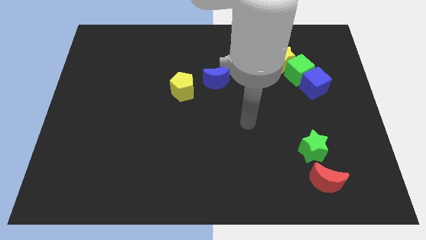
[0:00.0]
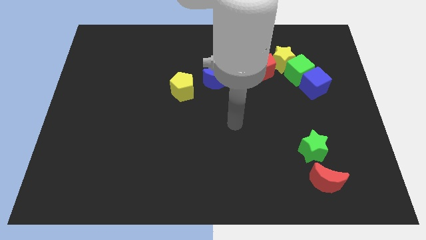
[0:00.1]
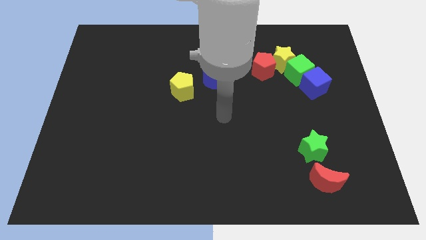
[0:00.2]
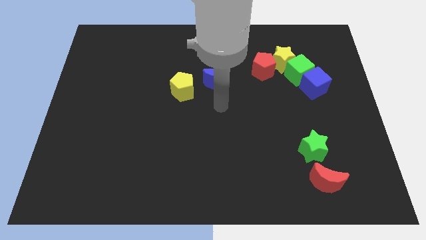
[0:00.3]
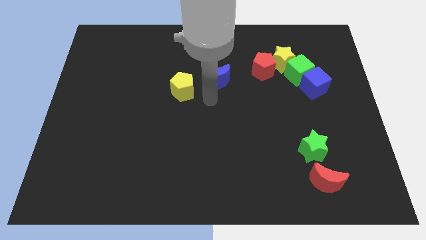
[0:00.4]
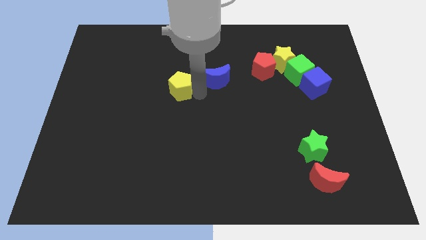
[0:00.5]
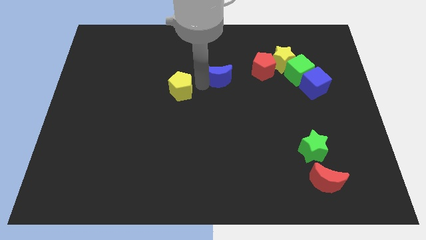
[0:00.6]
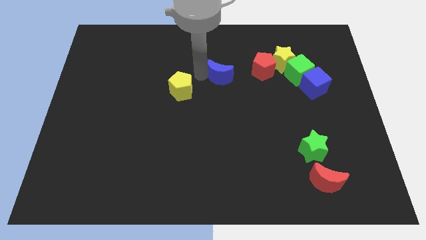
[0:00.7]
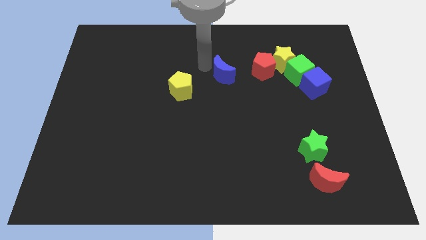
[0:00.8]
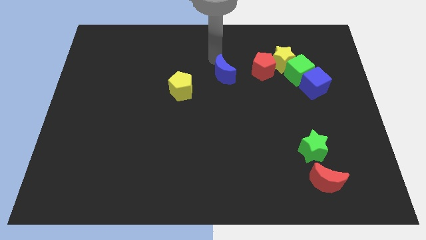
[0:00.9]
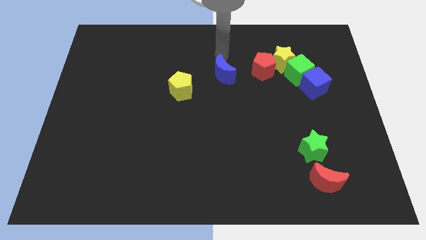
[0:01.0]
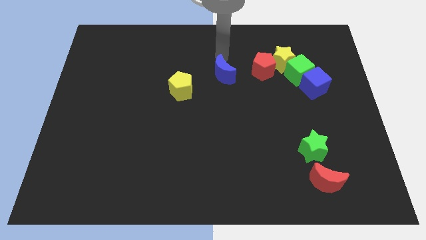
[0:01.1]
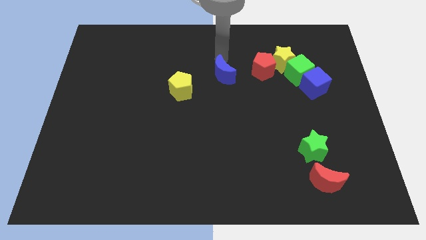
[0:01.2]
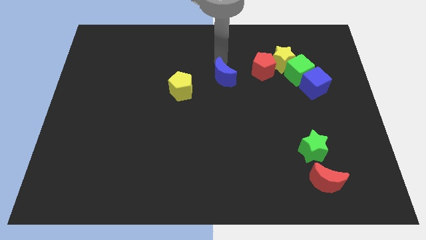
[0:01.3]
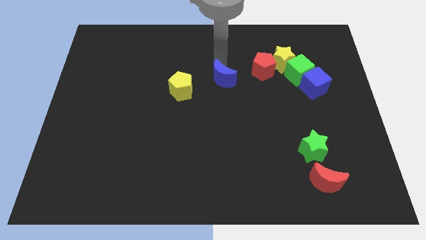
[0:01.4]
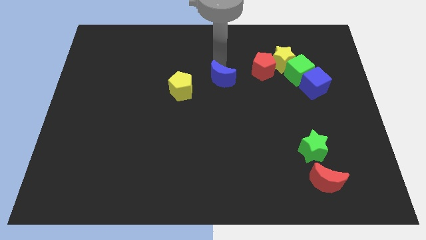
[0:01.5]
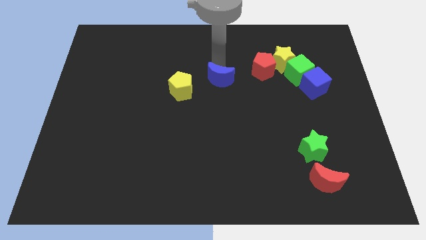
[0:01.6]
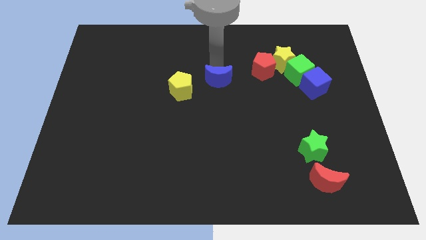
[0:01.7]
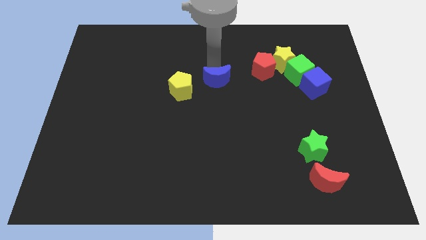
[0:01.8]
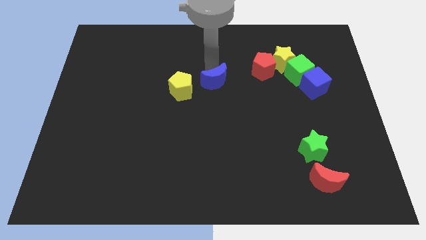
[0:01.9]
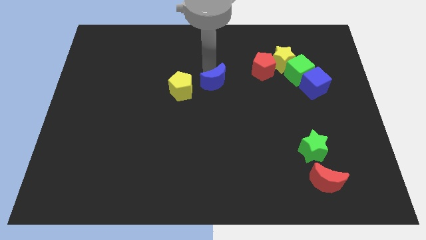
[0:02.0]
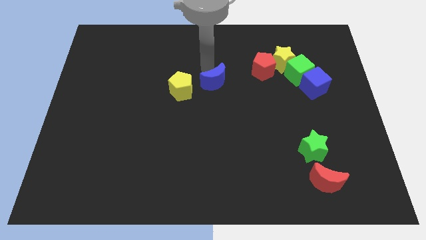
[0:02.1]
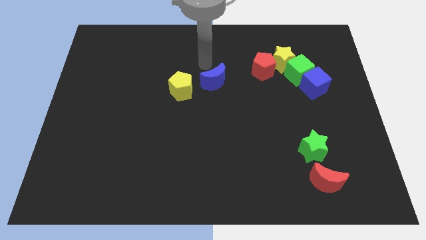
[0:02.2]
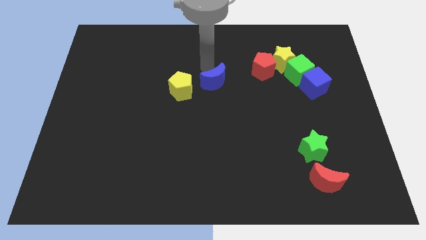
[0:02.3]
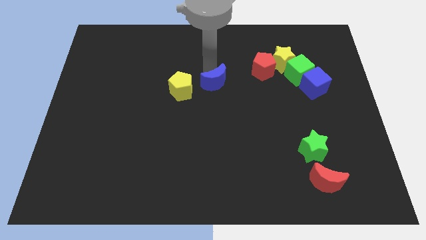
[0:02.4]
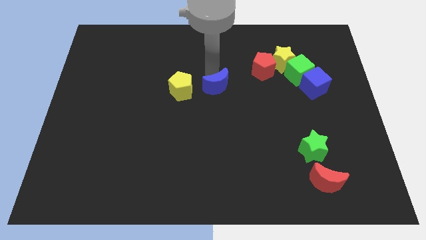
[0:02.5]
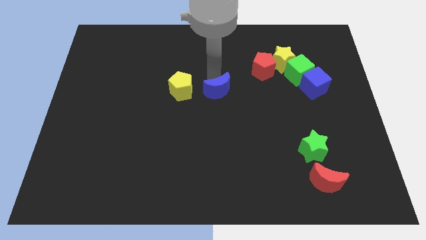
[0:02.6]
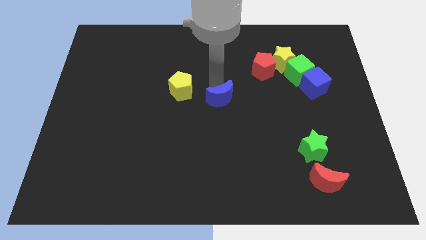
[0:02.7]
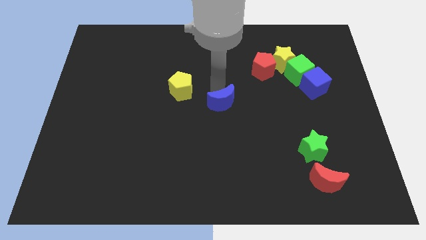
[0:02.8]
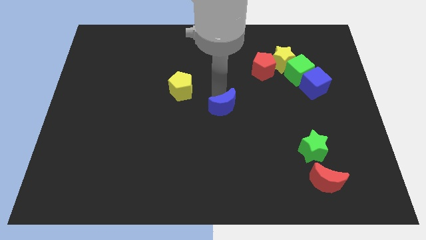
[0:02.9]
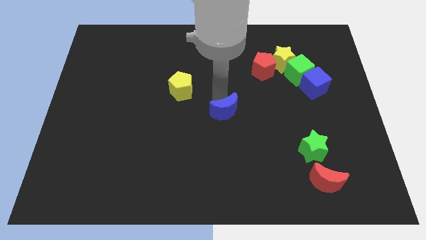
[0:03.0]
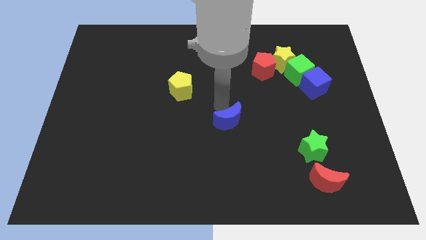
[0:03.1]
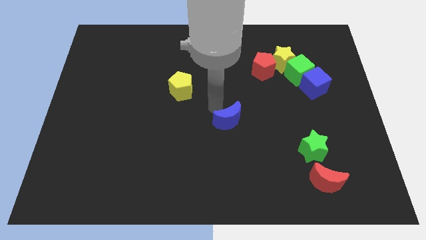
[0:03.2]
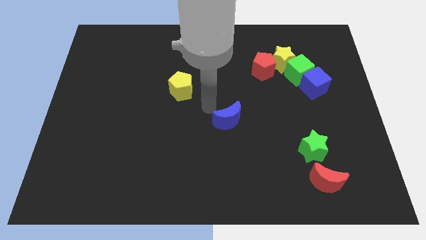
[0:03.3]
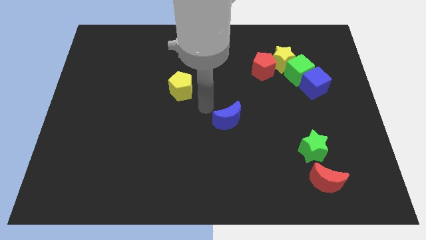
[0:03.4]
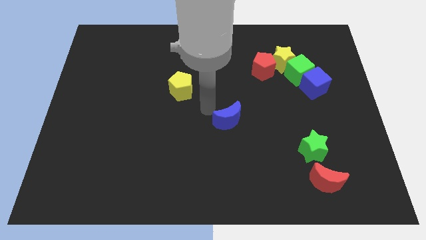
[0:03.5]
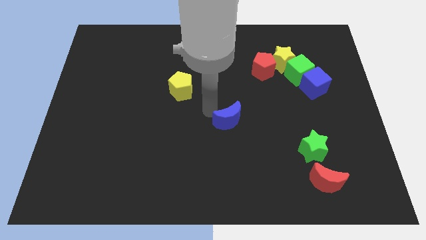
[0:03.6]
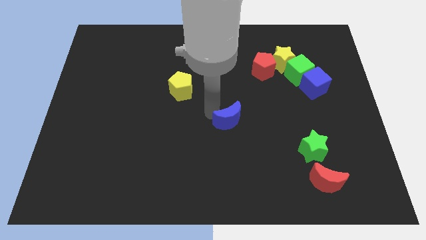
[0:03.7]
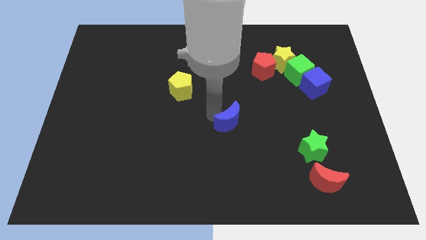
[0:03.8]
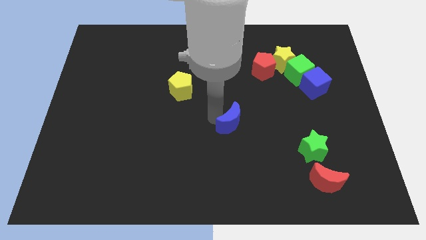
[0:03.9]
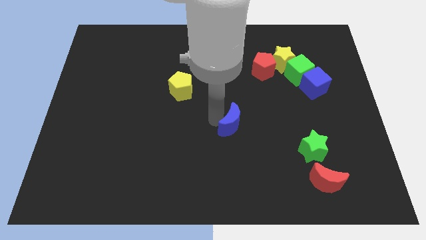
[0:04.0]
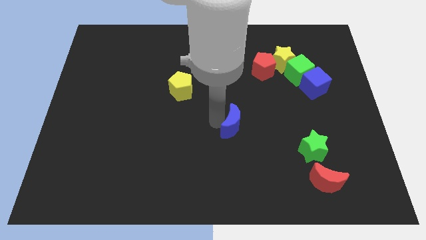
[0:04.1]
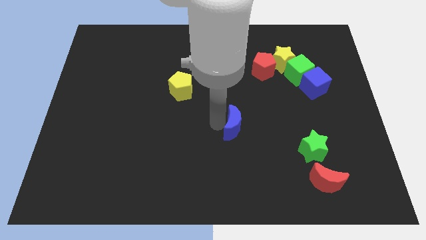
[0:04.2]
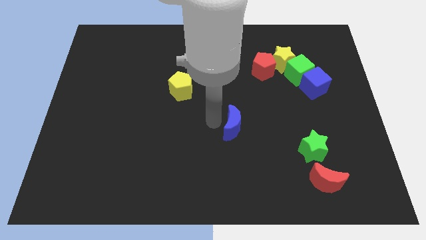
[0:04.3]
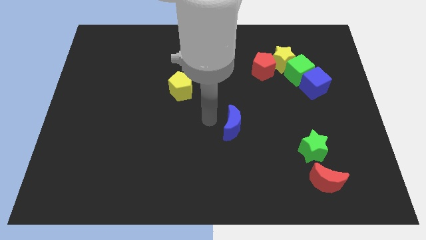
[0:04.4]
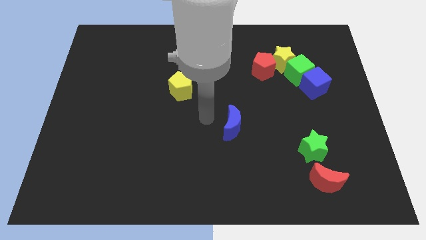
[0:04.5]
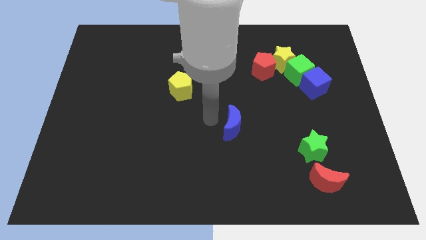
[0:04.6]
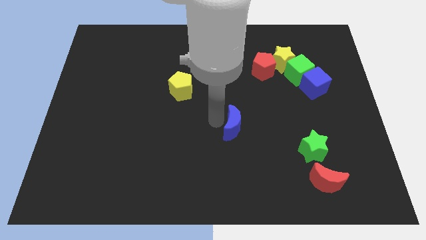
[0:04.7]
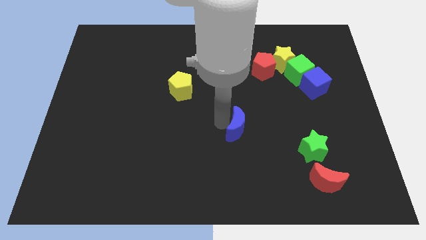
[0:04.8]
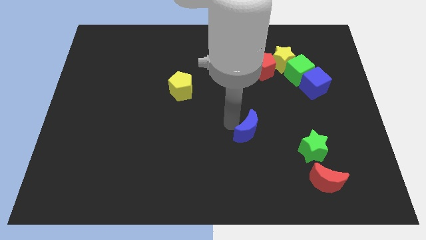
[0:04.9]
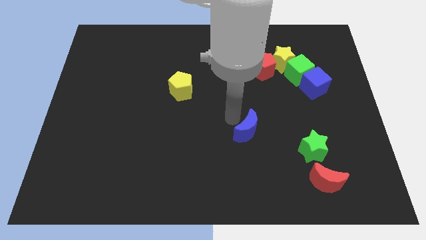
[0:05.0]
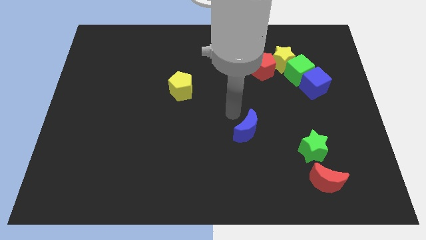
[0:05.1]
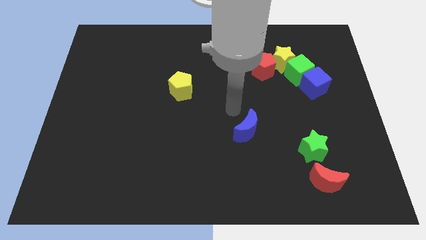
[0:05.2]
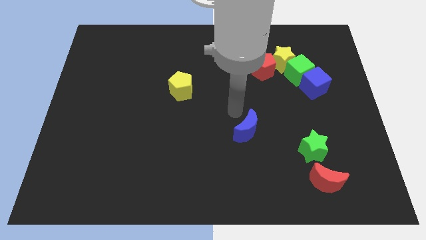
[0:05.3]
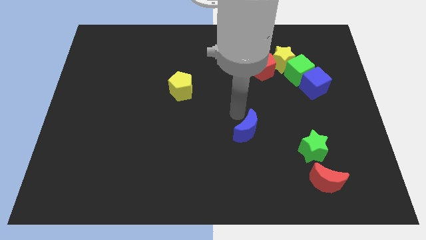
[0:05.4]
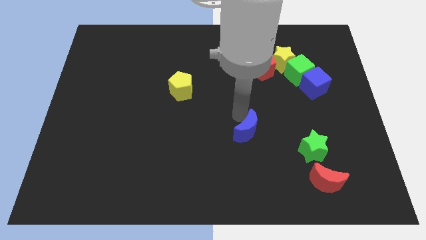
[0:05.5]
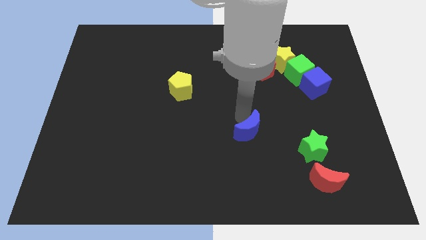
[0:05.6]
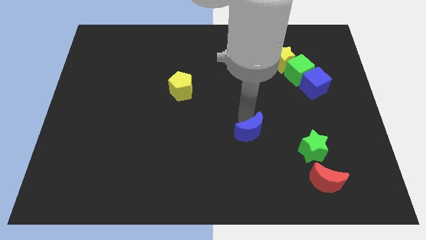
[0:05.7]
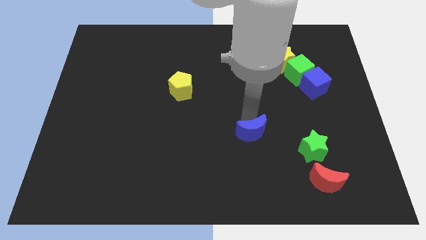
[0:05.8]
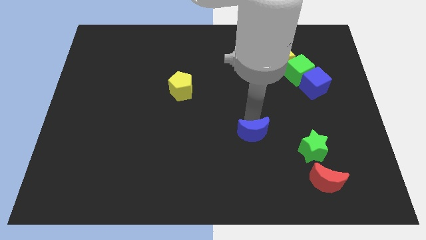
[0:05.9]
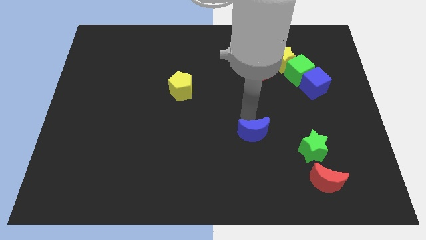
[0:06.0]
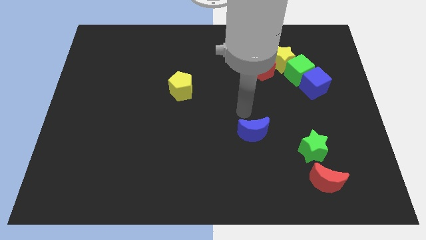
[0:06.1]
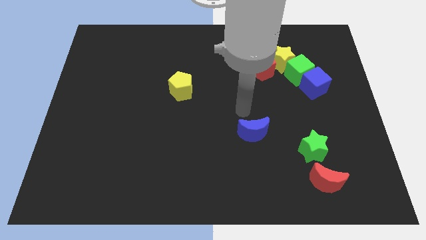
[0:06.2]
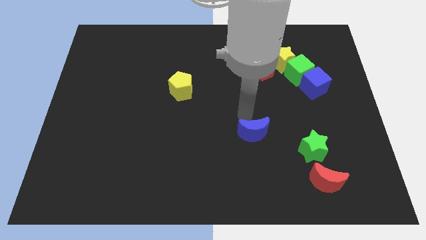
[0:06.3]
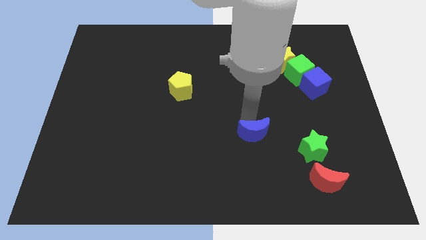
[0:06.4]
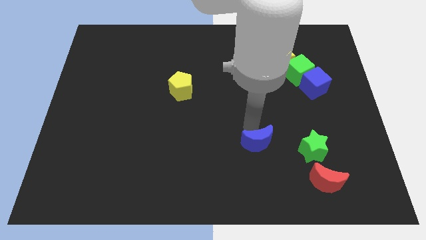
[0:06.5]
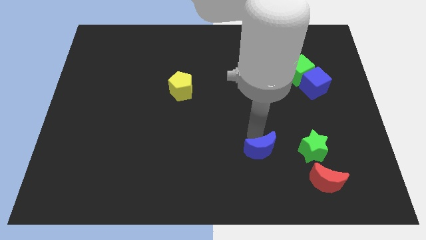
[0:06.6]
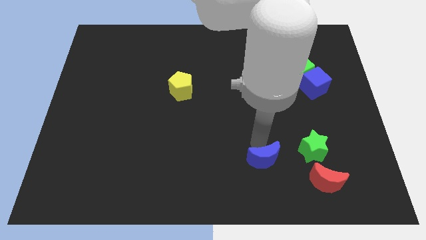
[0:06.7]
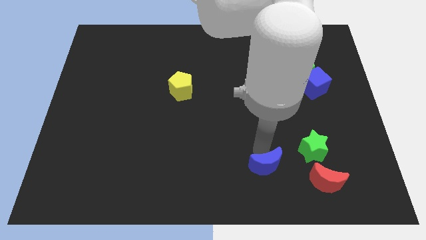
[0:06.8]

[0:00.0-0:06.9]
put the blue moon to the left side of the red moon

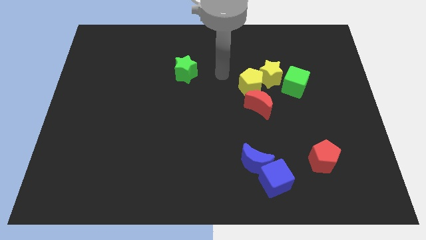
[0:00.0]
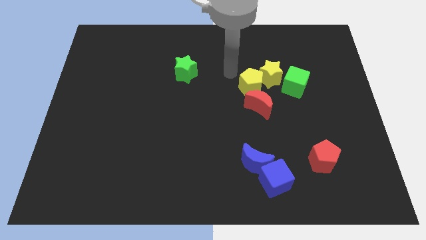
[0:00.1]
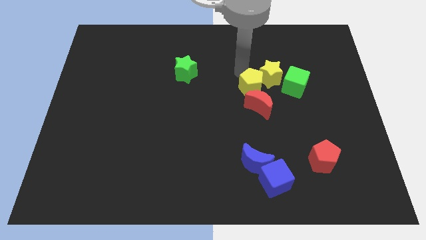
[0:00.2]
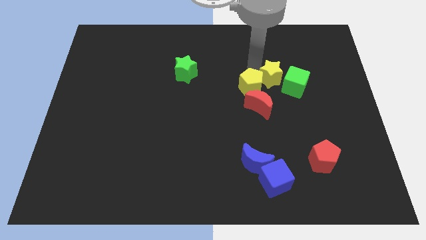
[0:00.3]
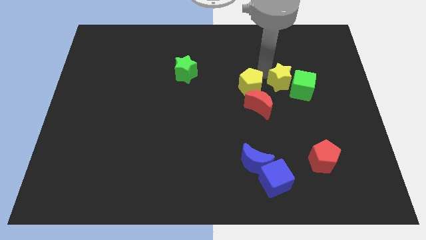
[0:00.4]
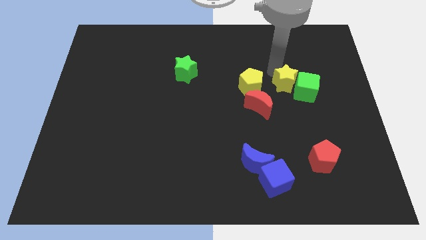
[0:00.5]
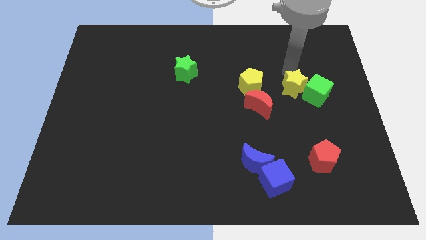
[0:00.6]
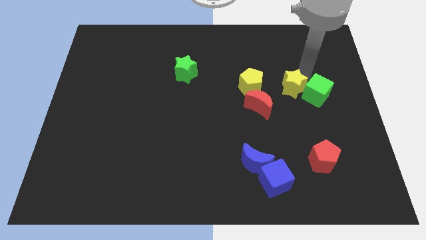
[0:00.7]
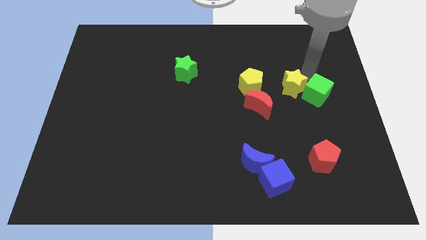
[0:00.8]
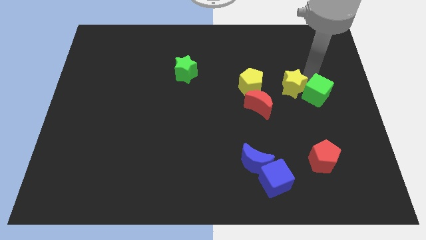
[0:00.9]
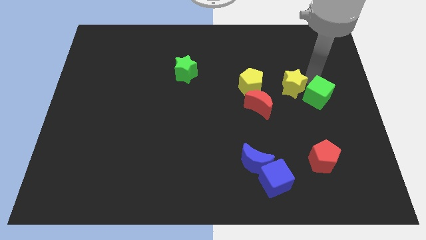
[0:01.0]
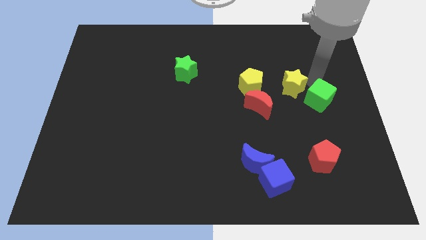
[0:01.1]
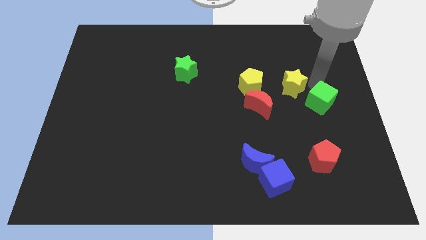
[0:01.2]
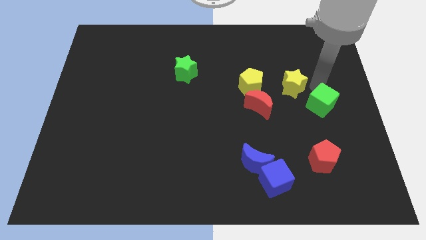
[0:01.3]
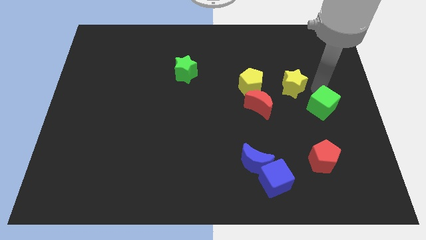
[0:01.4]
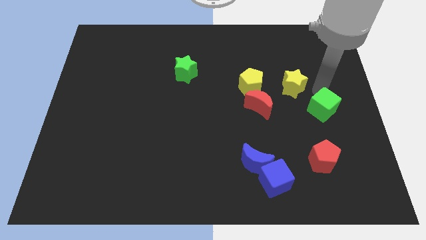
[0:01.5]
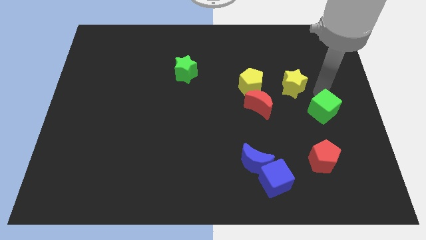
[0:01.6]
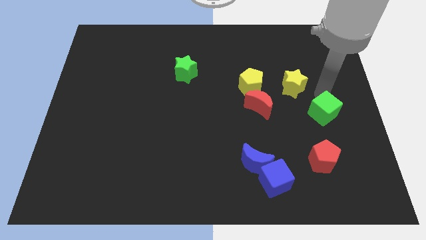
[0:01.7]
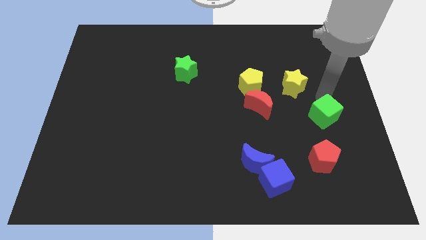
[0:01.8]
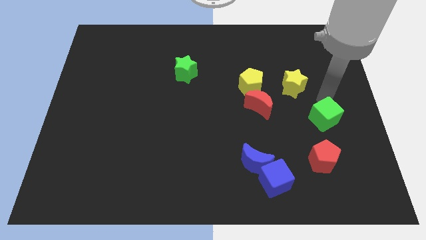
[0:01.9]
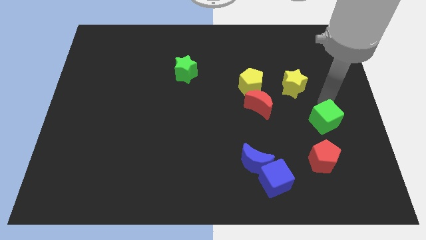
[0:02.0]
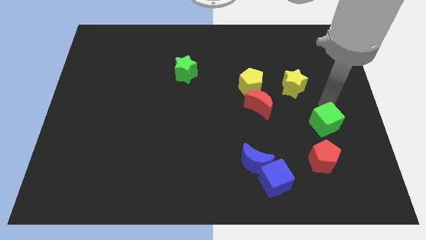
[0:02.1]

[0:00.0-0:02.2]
put the green cube diagonally up and to the right of the red pentagon
